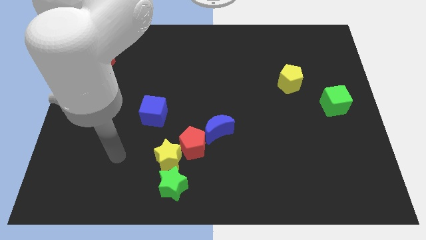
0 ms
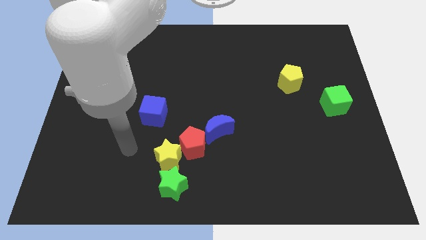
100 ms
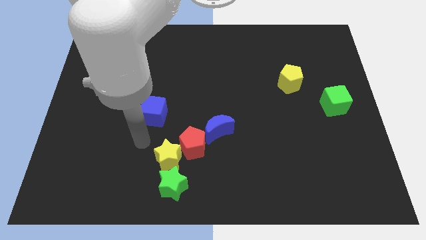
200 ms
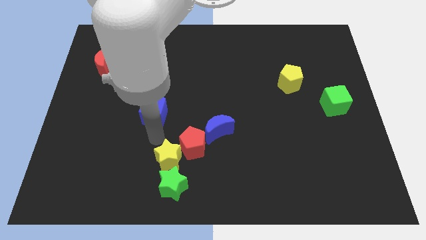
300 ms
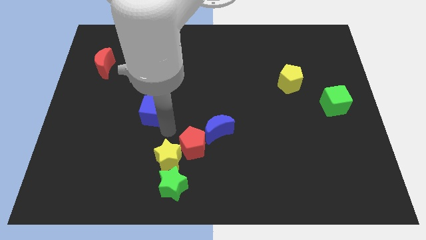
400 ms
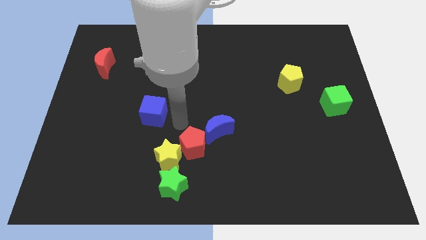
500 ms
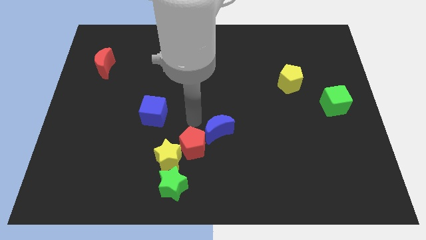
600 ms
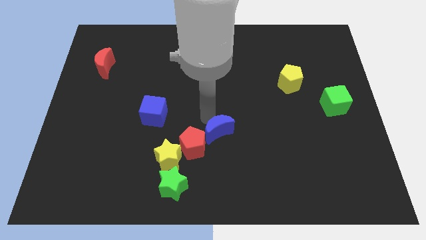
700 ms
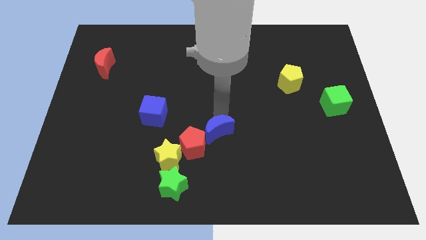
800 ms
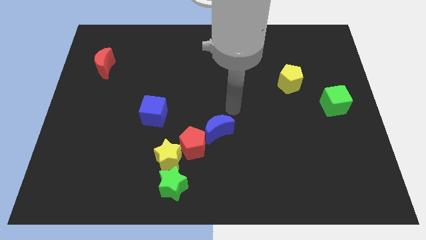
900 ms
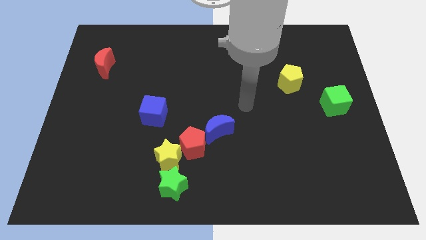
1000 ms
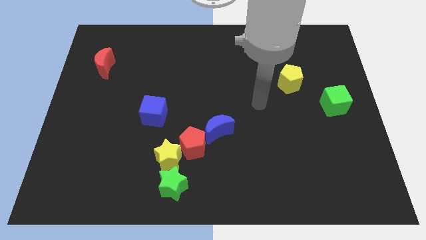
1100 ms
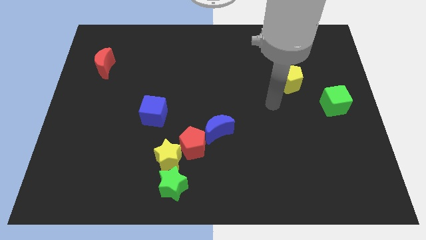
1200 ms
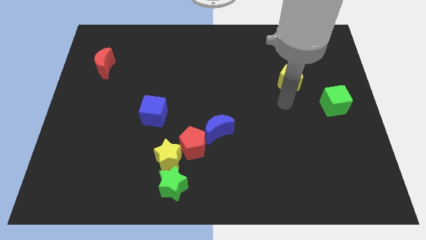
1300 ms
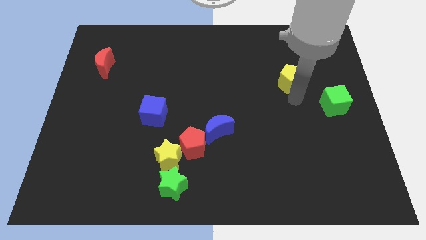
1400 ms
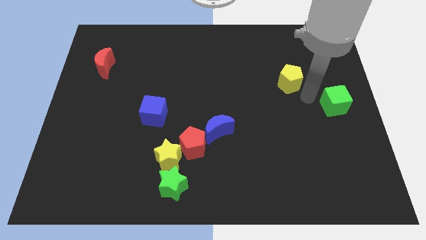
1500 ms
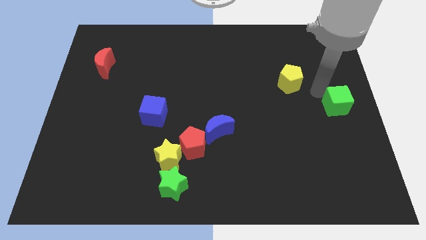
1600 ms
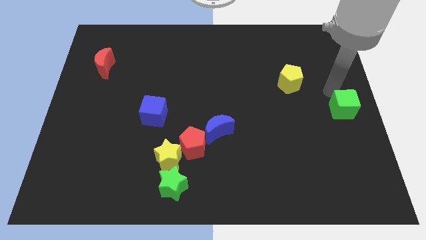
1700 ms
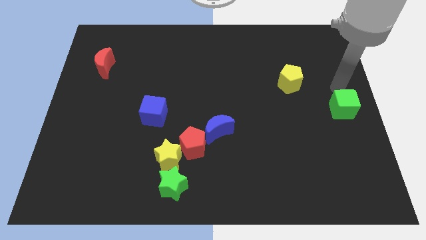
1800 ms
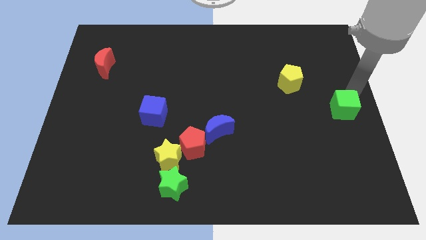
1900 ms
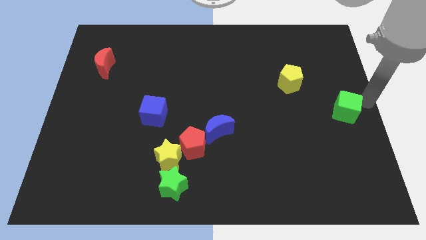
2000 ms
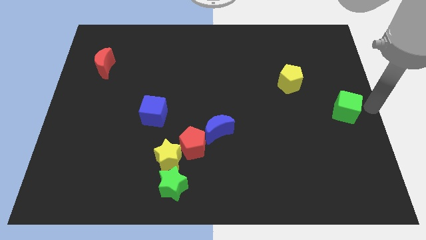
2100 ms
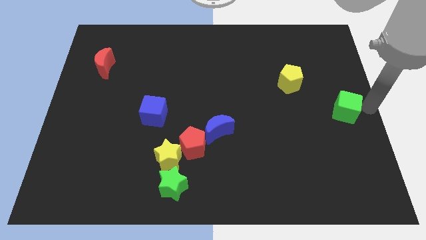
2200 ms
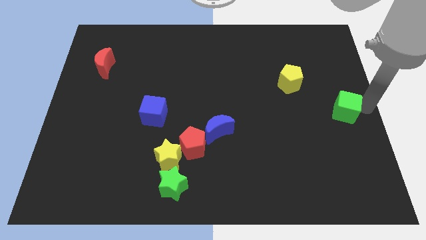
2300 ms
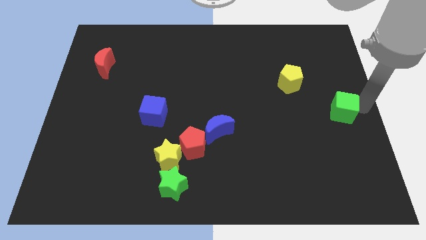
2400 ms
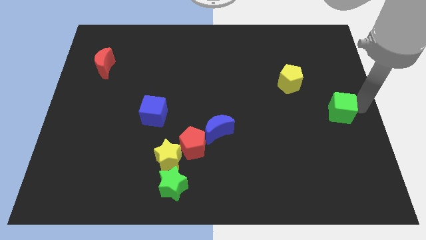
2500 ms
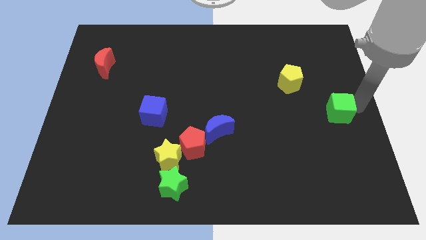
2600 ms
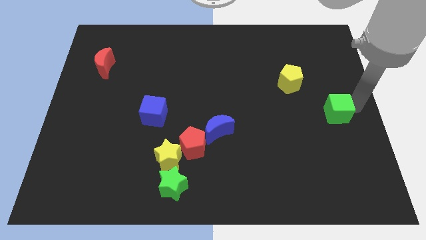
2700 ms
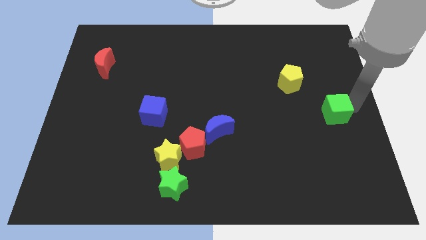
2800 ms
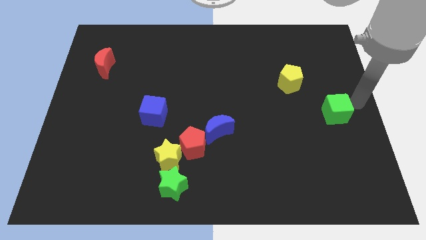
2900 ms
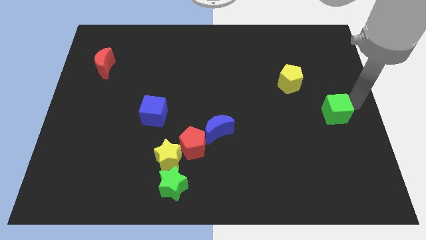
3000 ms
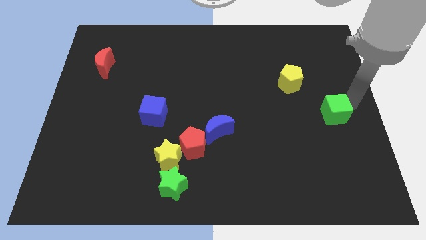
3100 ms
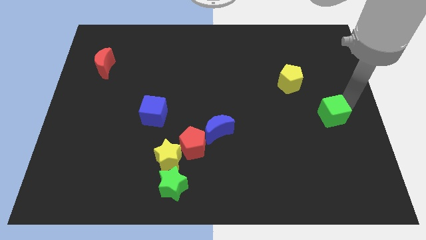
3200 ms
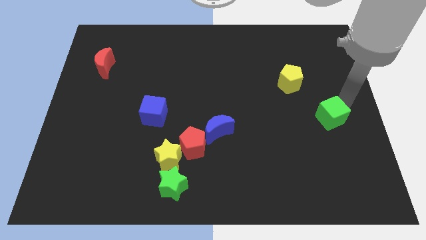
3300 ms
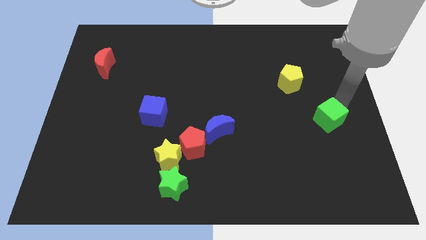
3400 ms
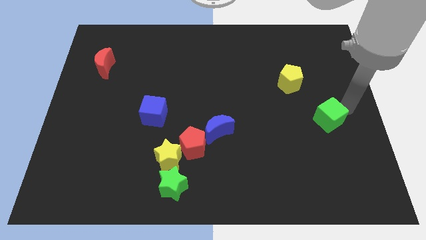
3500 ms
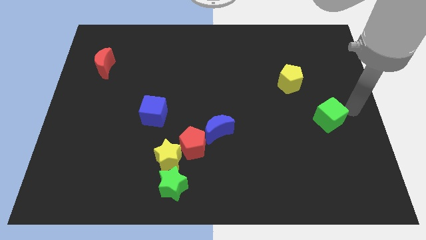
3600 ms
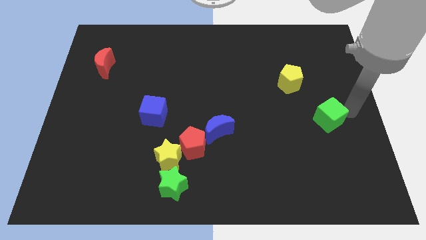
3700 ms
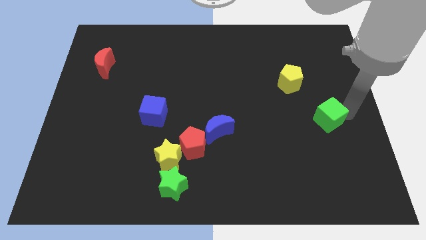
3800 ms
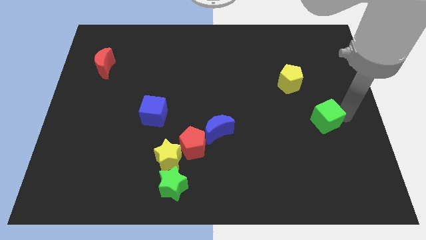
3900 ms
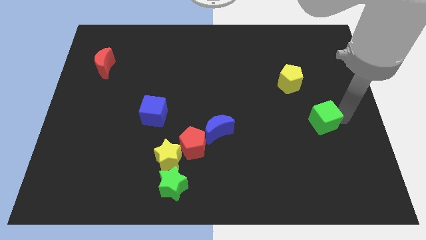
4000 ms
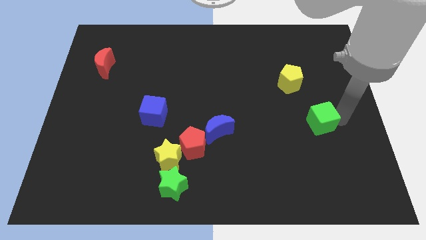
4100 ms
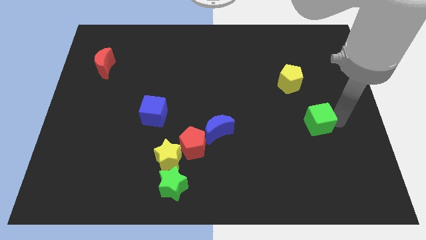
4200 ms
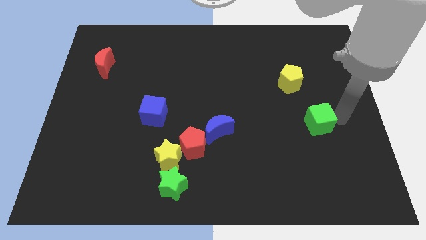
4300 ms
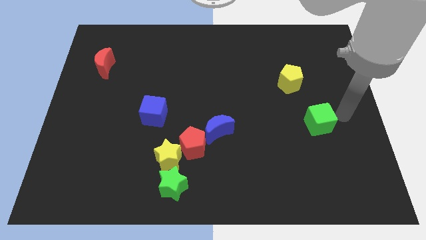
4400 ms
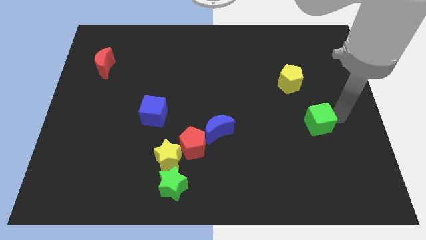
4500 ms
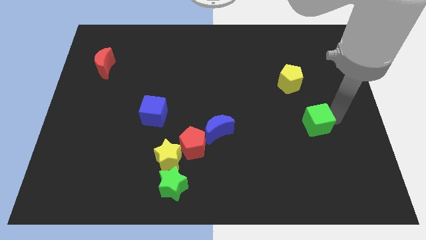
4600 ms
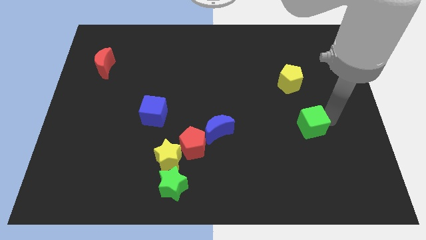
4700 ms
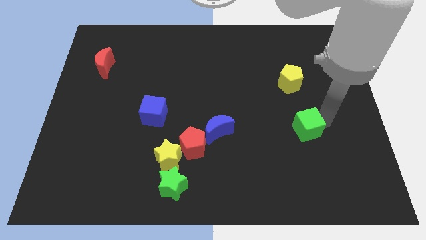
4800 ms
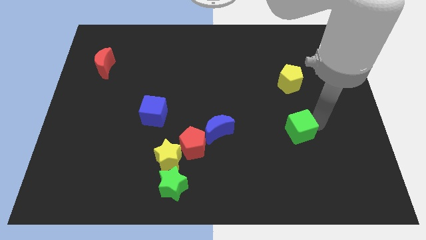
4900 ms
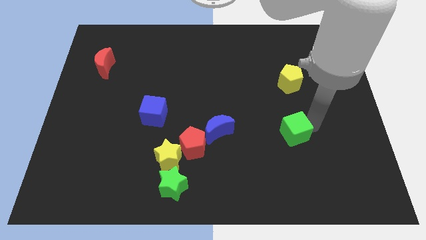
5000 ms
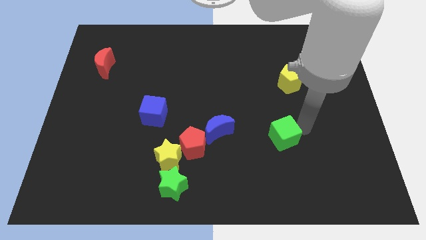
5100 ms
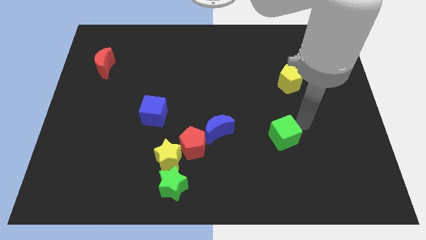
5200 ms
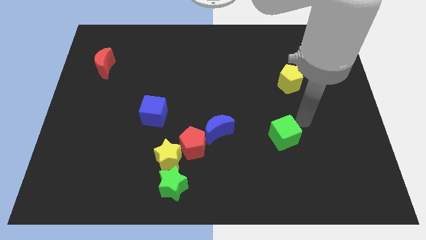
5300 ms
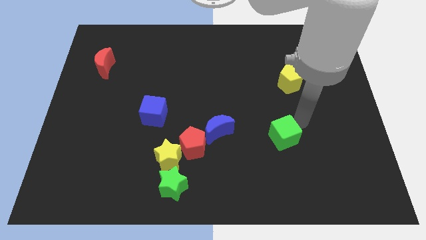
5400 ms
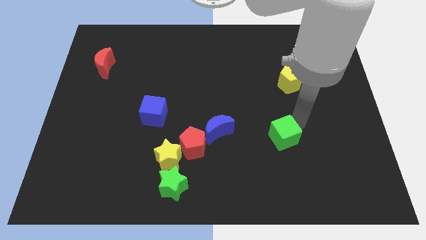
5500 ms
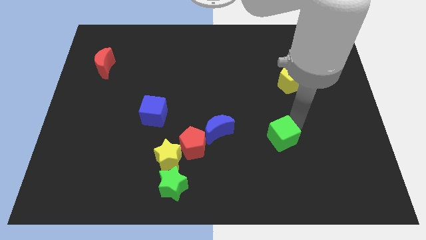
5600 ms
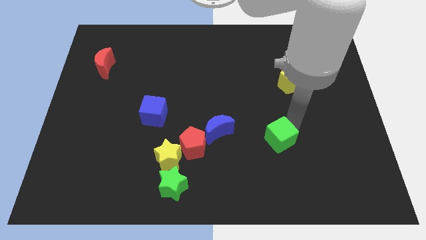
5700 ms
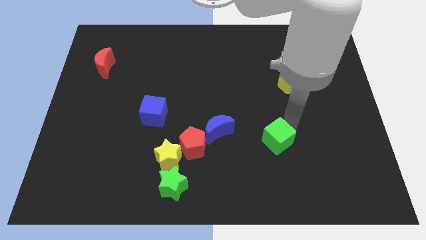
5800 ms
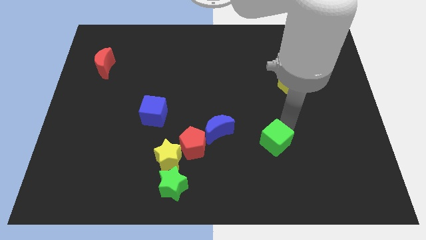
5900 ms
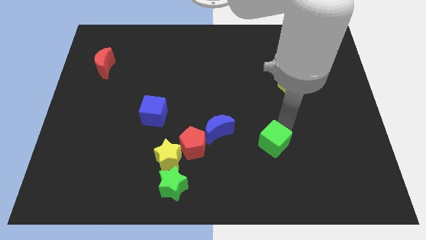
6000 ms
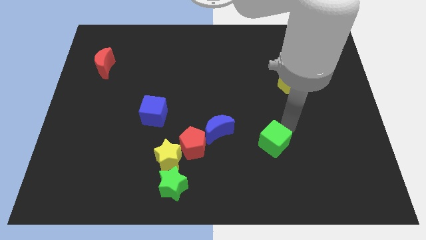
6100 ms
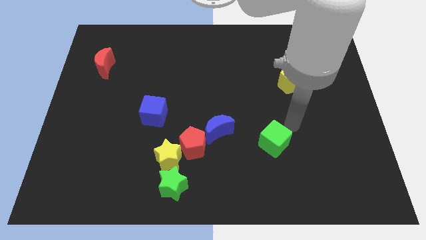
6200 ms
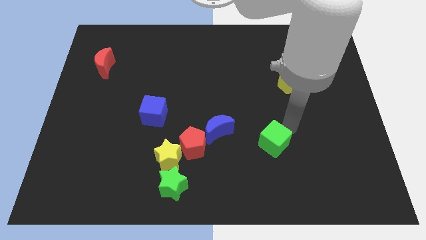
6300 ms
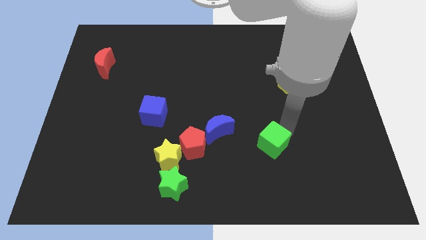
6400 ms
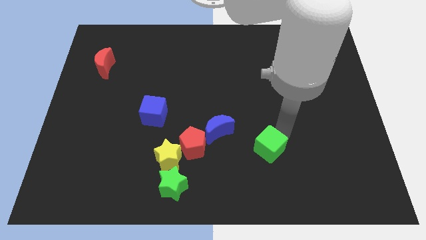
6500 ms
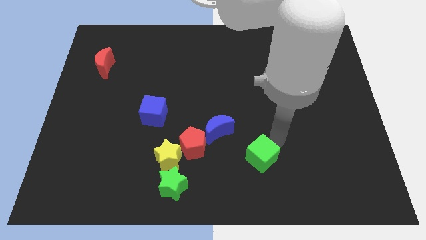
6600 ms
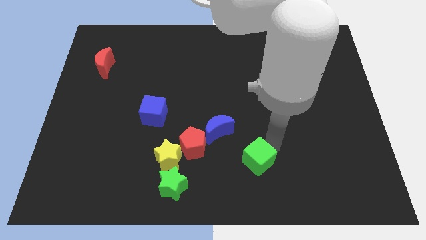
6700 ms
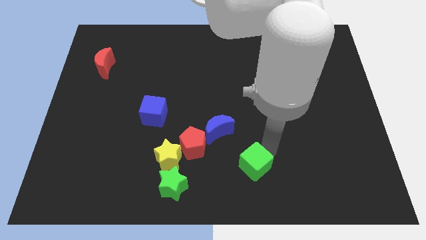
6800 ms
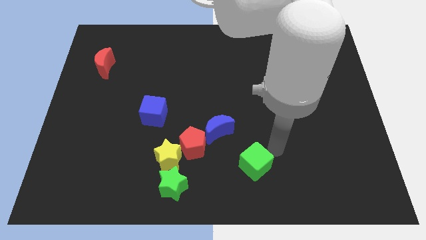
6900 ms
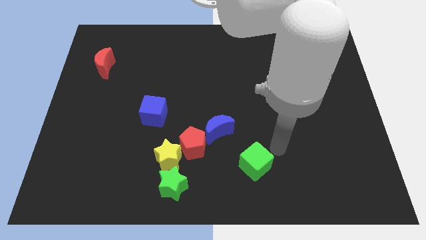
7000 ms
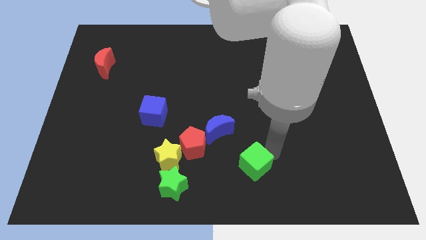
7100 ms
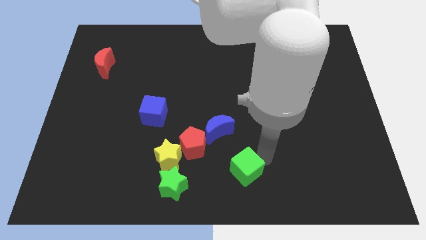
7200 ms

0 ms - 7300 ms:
slide the green cube to the right side of the green star
